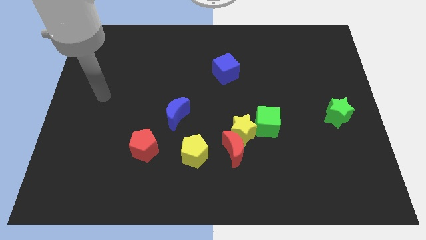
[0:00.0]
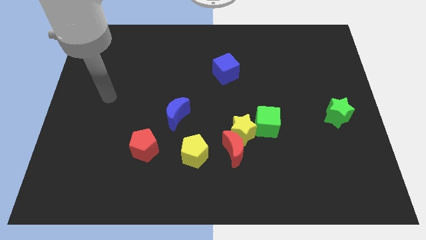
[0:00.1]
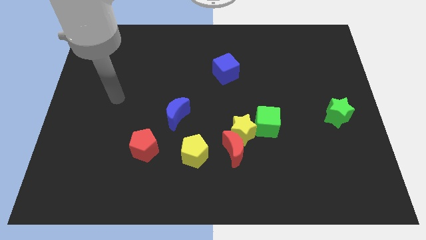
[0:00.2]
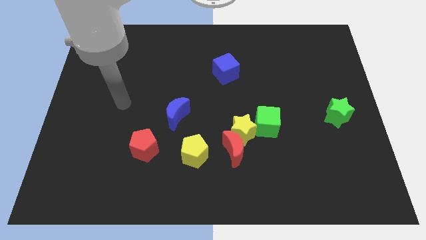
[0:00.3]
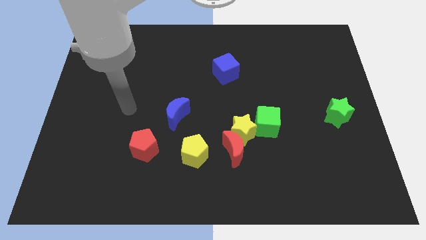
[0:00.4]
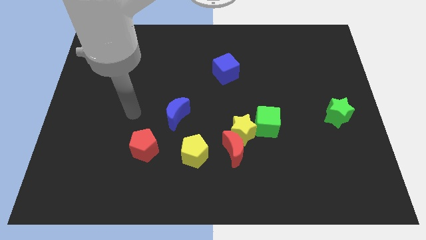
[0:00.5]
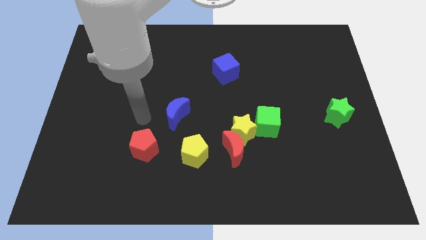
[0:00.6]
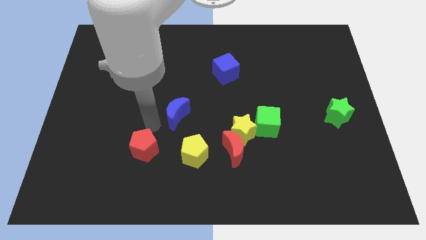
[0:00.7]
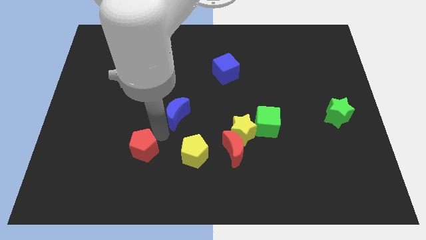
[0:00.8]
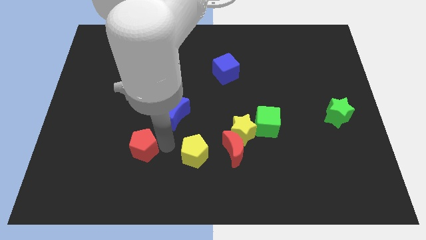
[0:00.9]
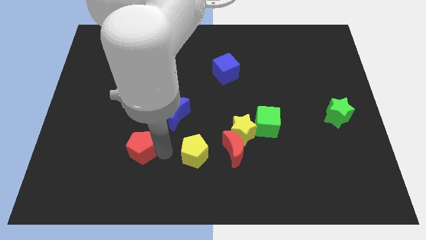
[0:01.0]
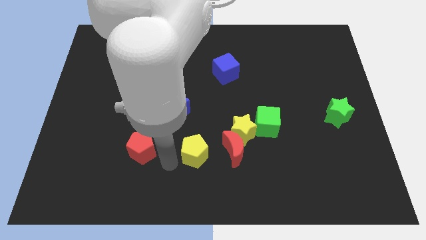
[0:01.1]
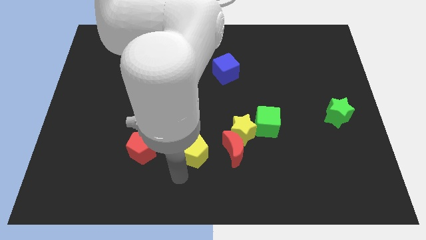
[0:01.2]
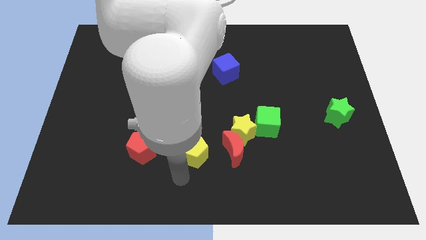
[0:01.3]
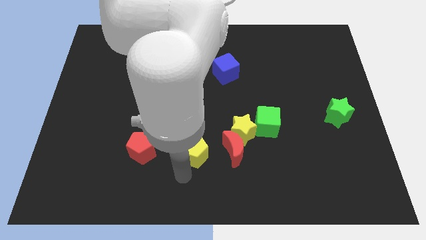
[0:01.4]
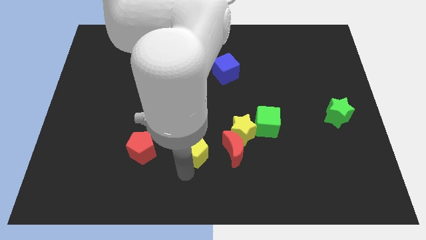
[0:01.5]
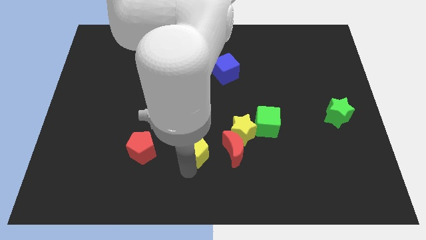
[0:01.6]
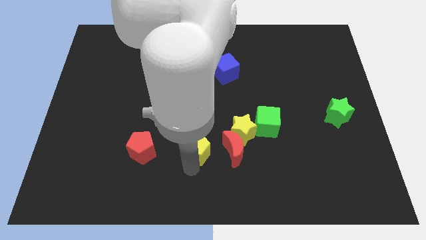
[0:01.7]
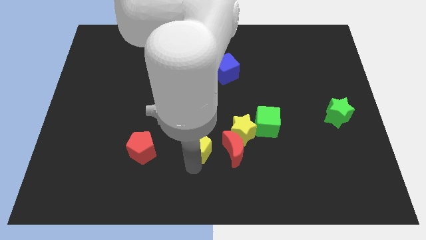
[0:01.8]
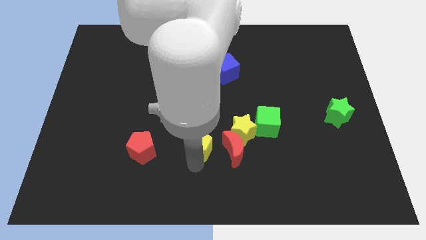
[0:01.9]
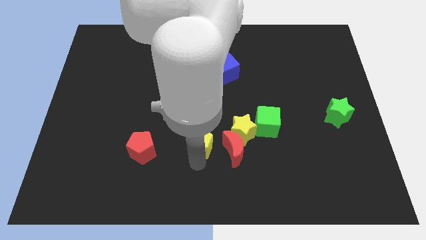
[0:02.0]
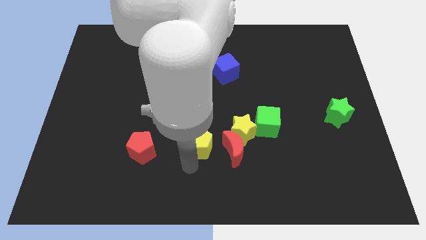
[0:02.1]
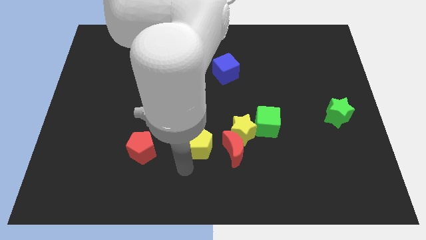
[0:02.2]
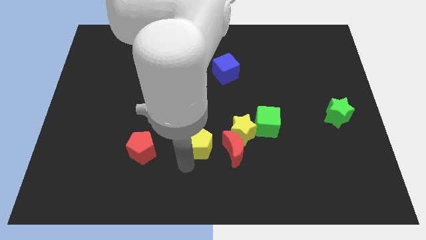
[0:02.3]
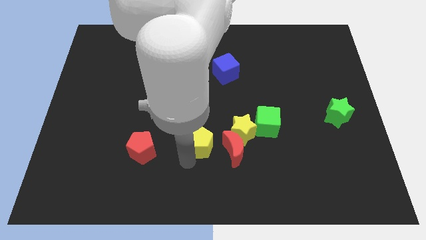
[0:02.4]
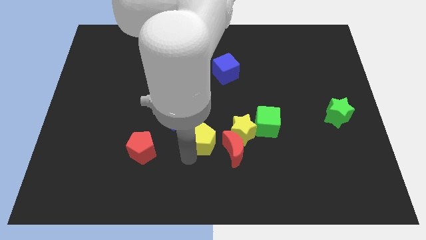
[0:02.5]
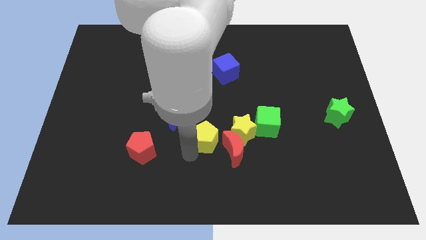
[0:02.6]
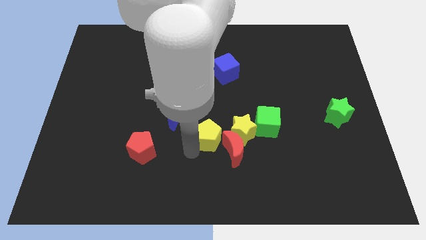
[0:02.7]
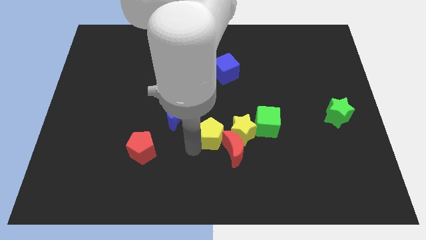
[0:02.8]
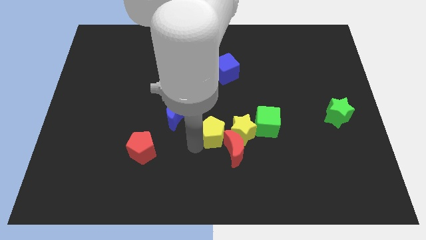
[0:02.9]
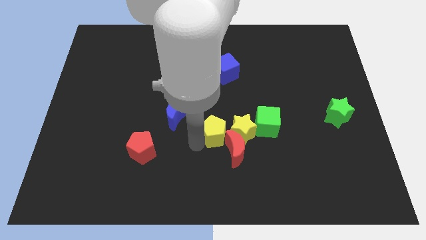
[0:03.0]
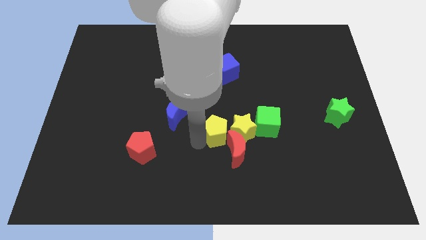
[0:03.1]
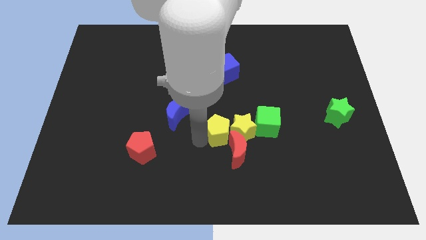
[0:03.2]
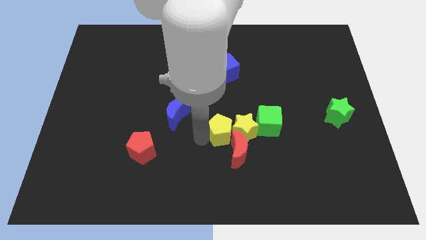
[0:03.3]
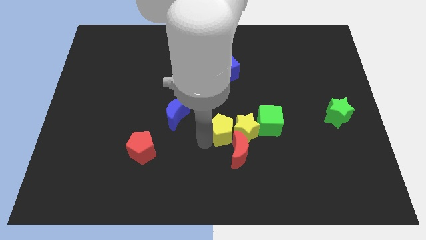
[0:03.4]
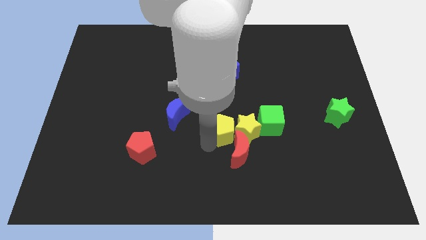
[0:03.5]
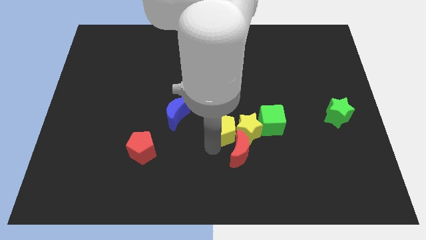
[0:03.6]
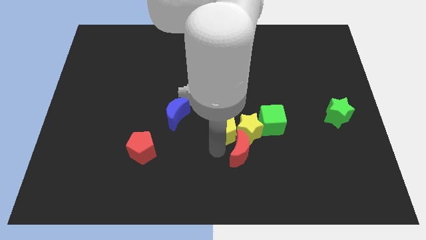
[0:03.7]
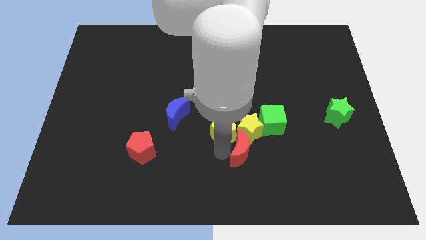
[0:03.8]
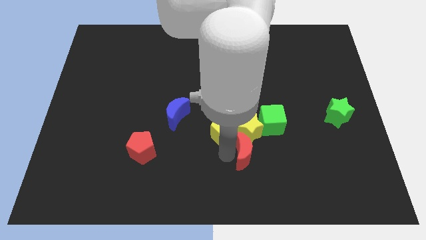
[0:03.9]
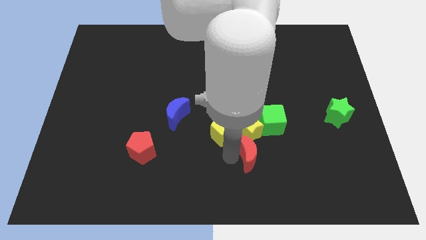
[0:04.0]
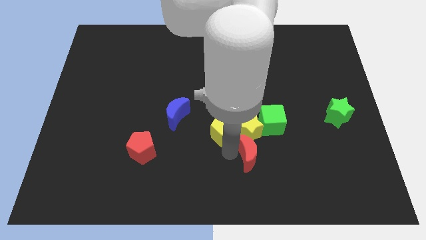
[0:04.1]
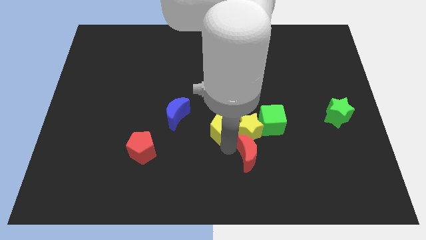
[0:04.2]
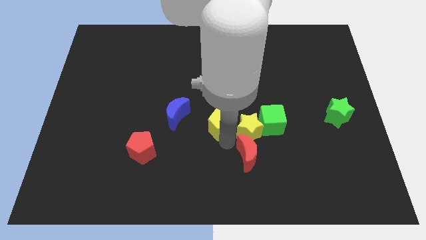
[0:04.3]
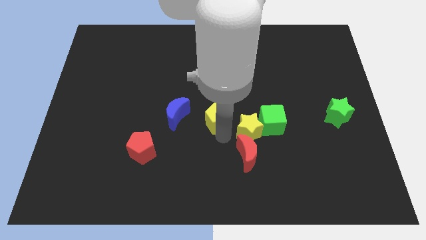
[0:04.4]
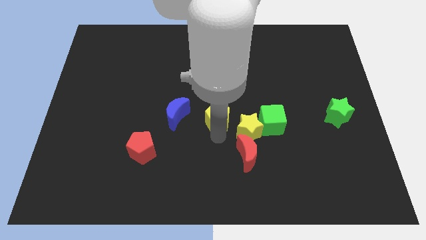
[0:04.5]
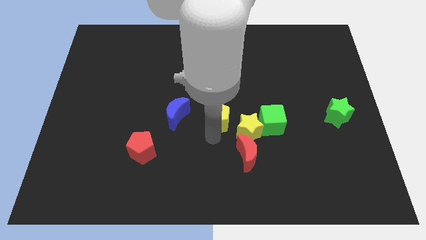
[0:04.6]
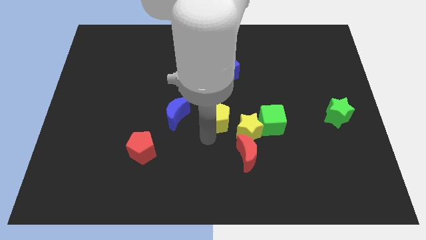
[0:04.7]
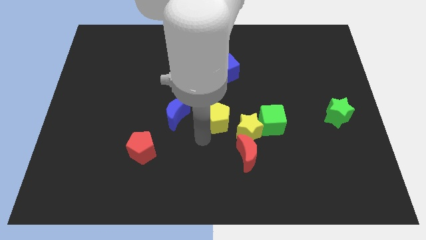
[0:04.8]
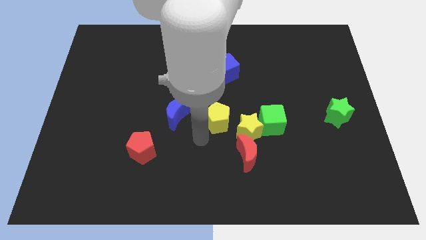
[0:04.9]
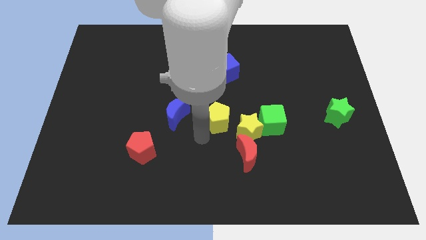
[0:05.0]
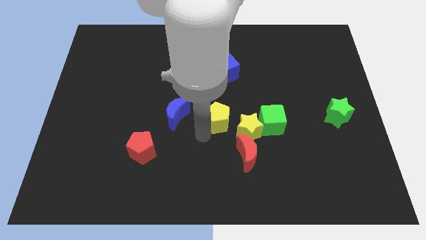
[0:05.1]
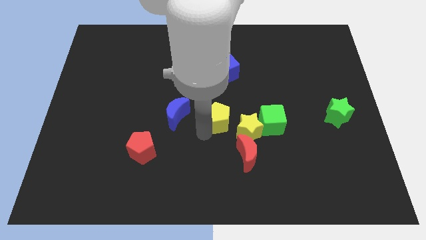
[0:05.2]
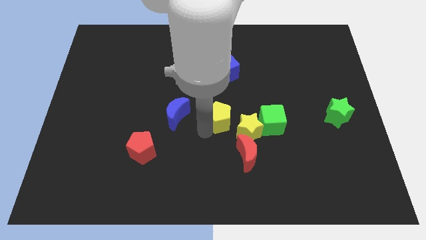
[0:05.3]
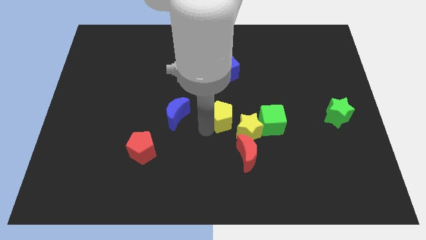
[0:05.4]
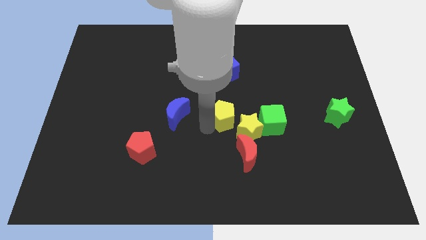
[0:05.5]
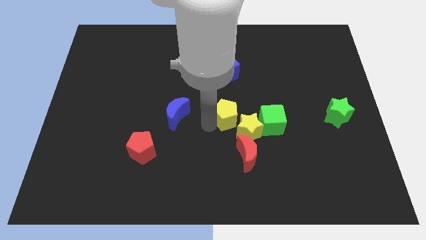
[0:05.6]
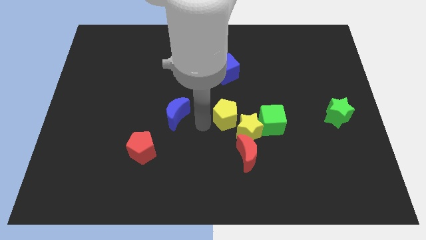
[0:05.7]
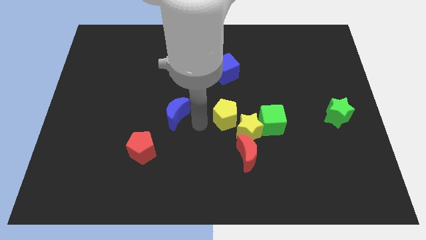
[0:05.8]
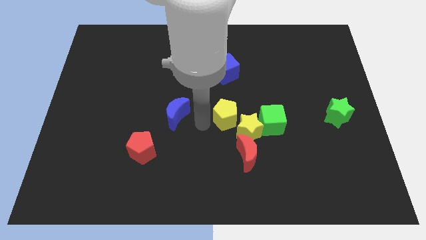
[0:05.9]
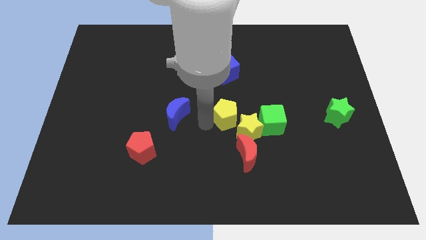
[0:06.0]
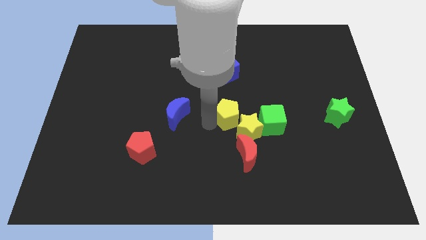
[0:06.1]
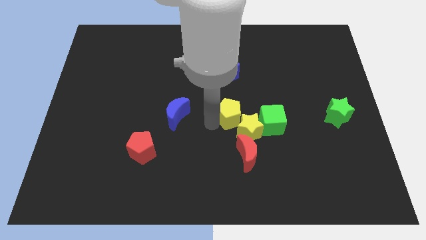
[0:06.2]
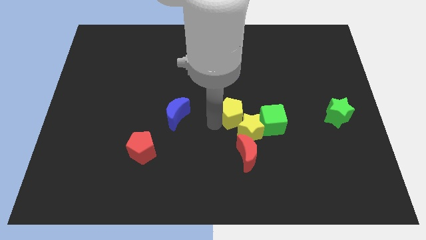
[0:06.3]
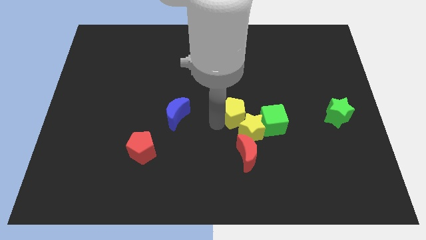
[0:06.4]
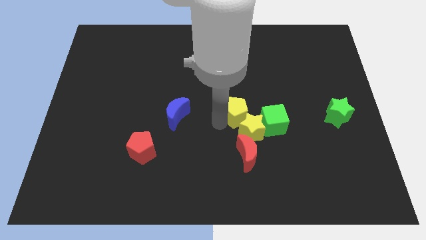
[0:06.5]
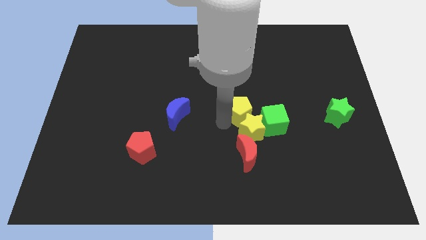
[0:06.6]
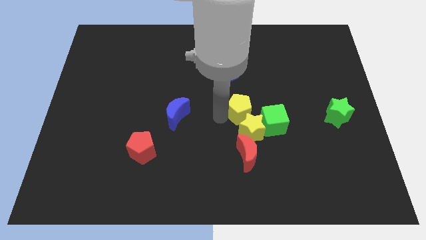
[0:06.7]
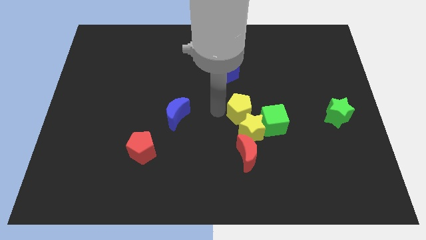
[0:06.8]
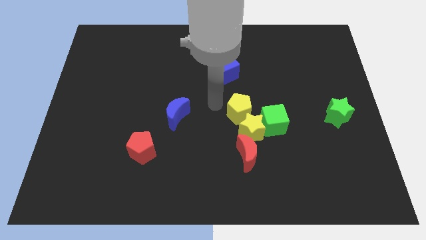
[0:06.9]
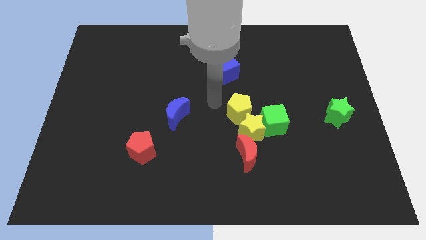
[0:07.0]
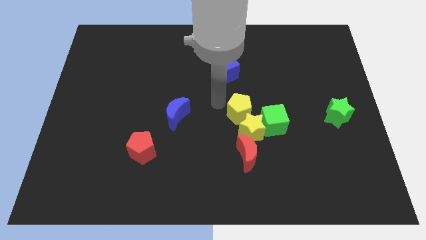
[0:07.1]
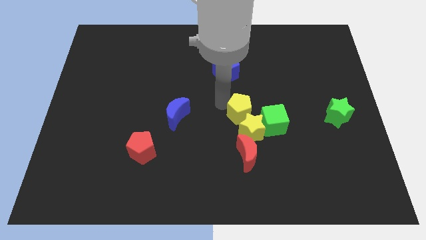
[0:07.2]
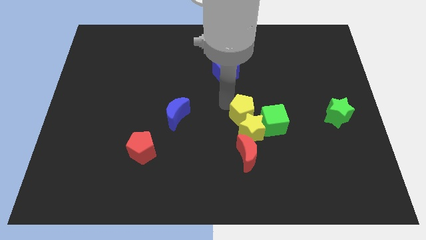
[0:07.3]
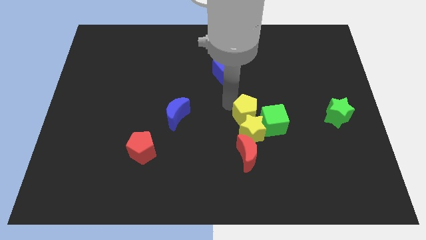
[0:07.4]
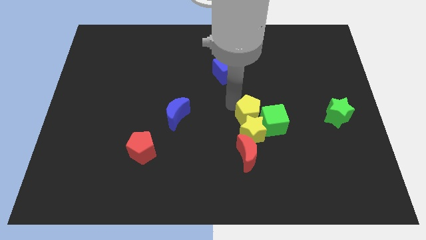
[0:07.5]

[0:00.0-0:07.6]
put the yellow pentagon close to the green cube
